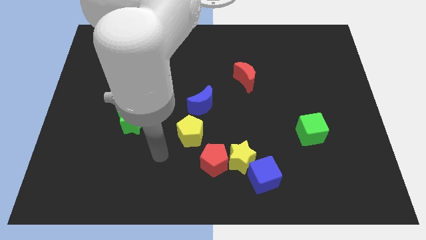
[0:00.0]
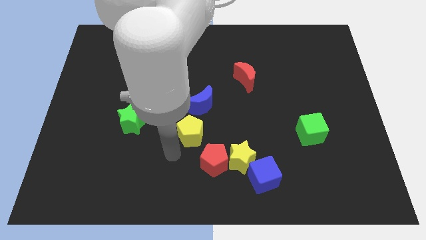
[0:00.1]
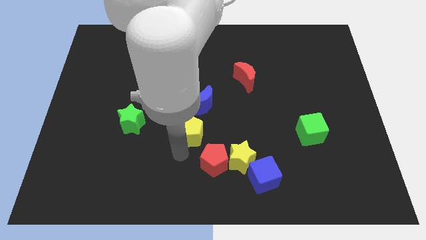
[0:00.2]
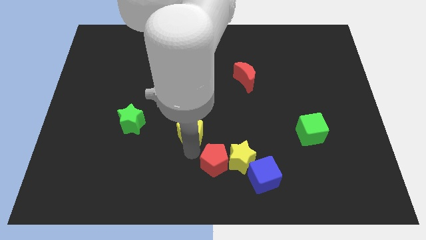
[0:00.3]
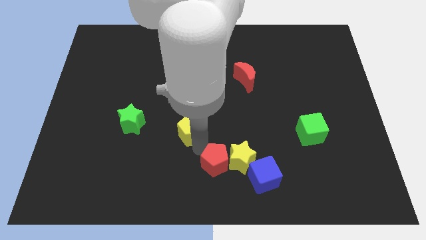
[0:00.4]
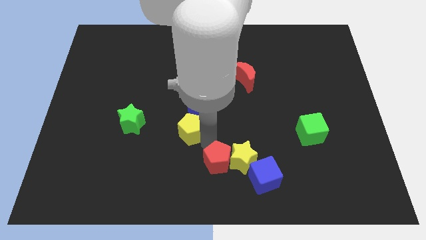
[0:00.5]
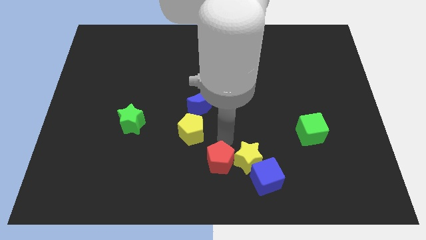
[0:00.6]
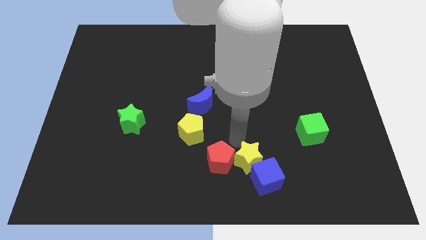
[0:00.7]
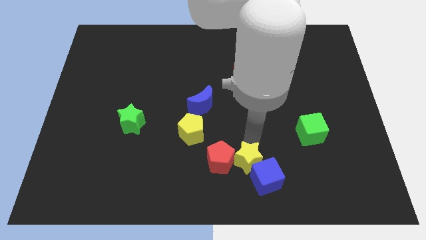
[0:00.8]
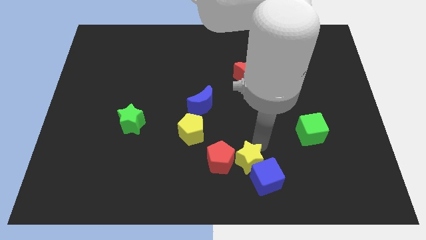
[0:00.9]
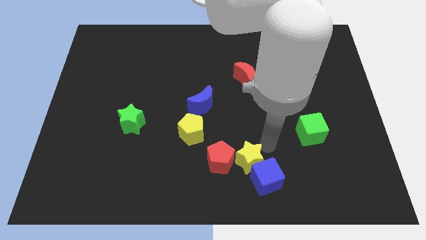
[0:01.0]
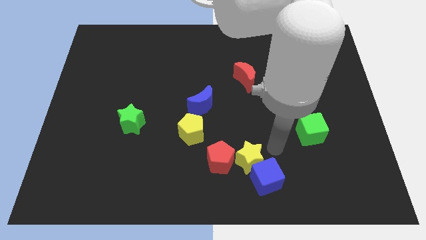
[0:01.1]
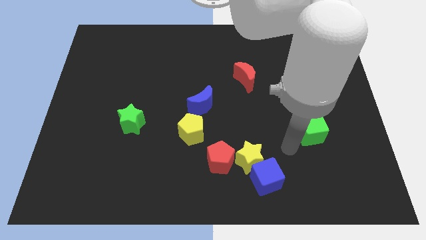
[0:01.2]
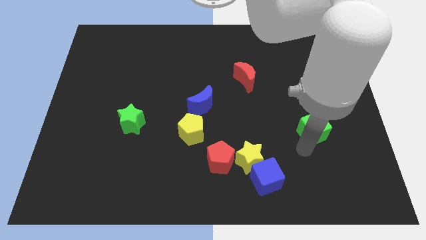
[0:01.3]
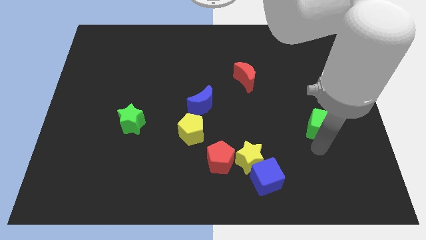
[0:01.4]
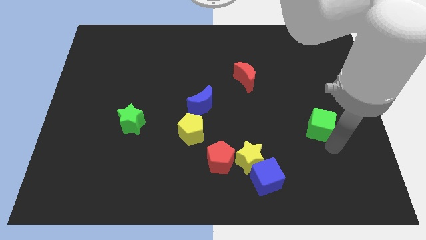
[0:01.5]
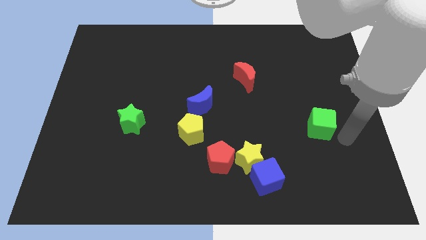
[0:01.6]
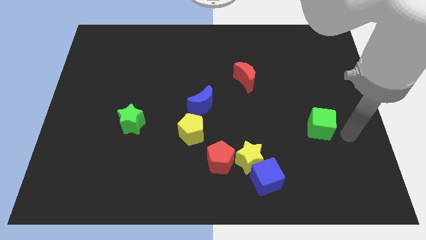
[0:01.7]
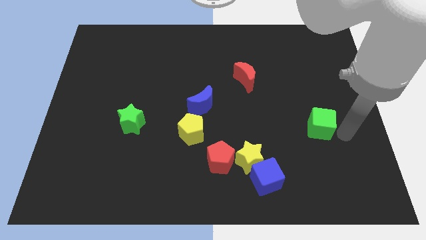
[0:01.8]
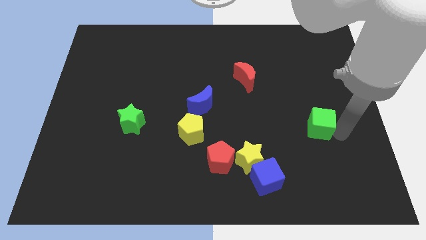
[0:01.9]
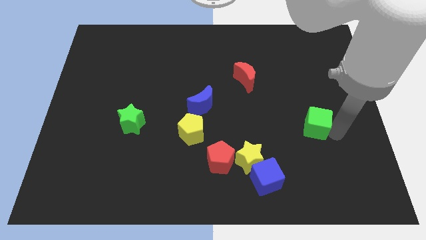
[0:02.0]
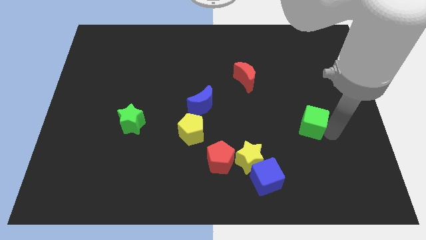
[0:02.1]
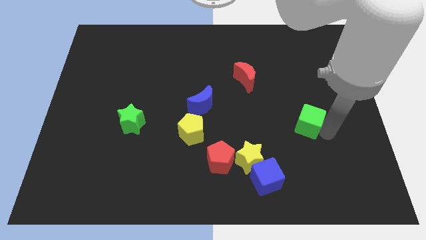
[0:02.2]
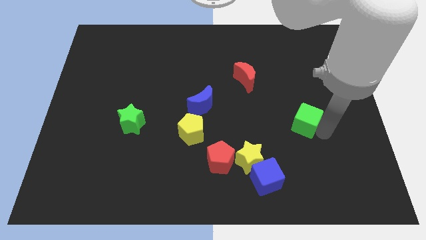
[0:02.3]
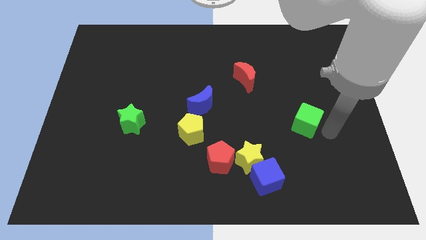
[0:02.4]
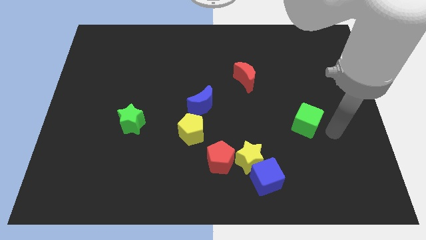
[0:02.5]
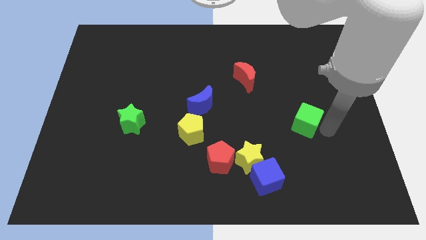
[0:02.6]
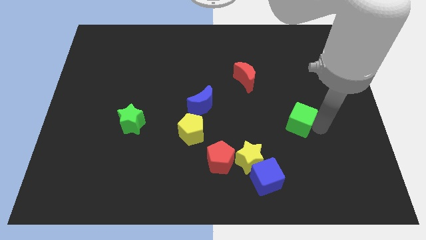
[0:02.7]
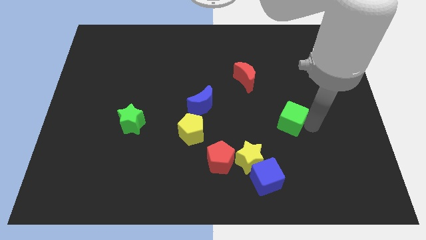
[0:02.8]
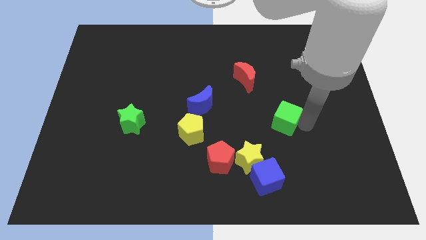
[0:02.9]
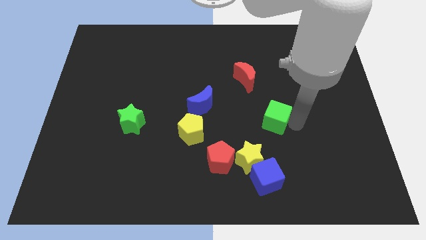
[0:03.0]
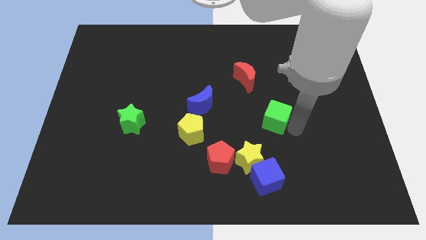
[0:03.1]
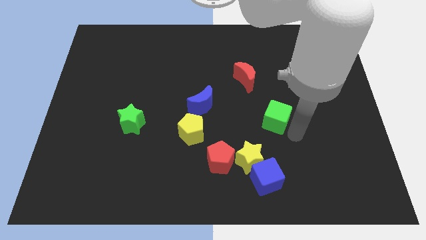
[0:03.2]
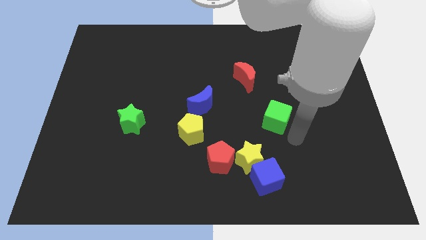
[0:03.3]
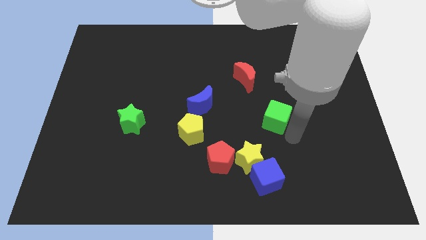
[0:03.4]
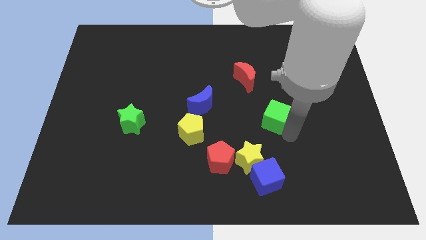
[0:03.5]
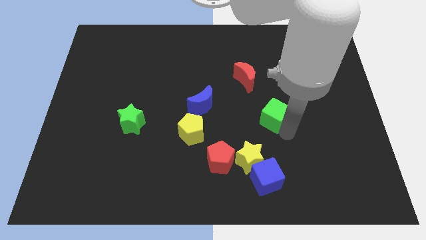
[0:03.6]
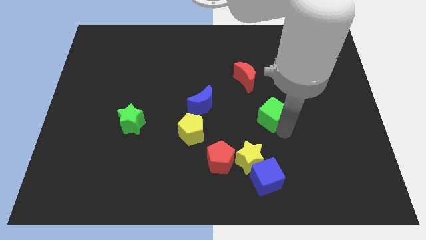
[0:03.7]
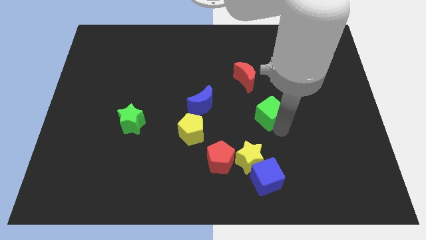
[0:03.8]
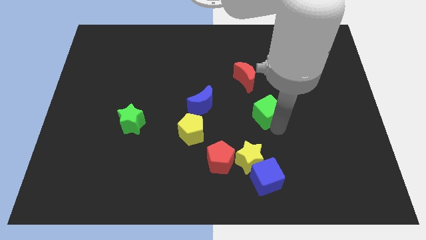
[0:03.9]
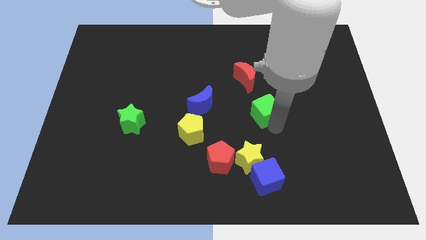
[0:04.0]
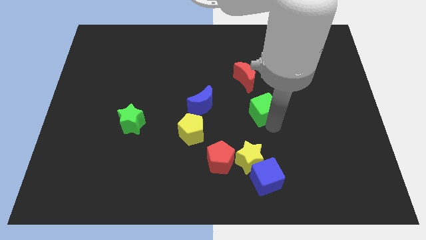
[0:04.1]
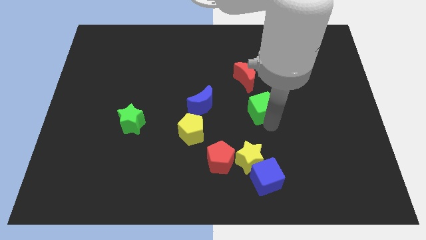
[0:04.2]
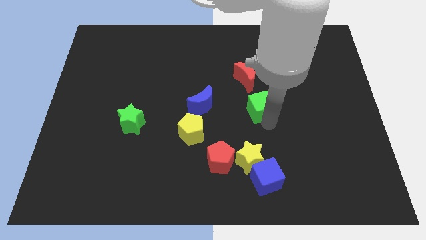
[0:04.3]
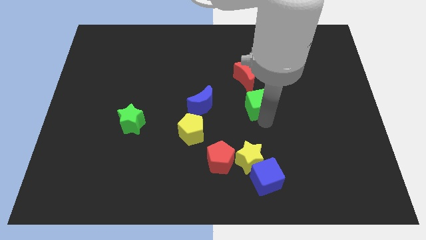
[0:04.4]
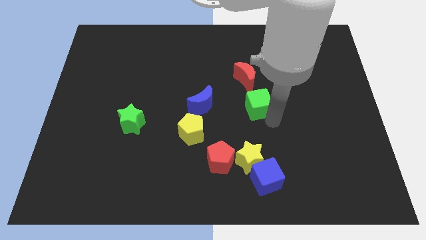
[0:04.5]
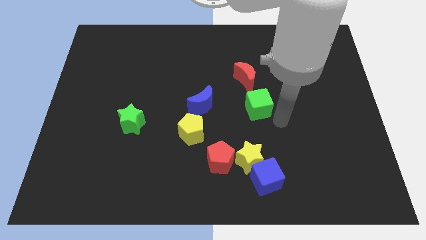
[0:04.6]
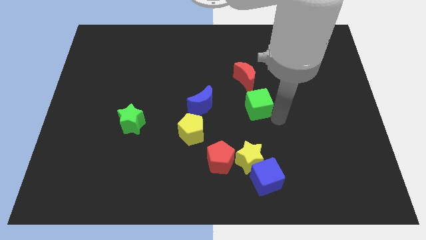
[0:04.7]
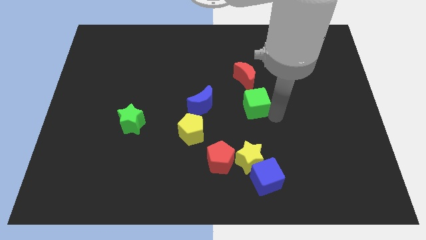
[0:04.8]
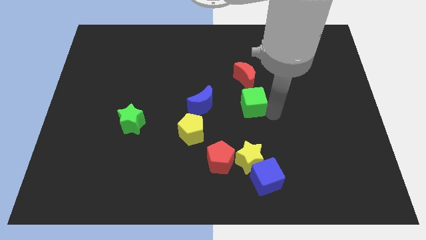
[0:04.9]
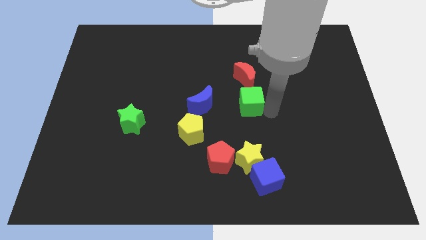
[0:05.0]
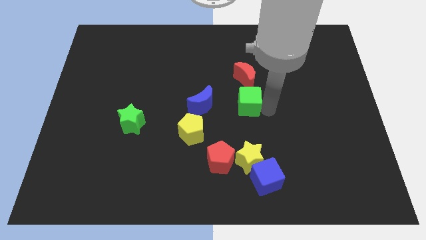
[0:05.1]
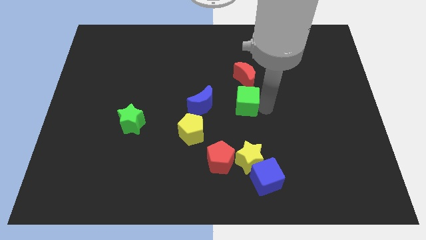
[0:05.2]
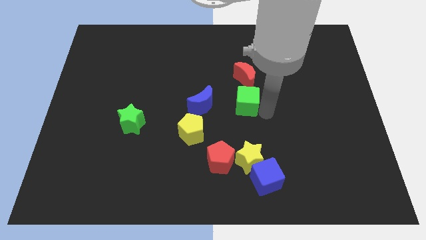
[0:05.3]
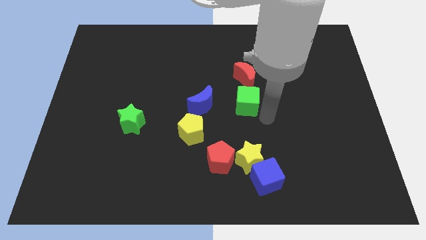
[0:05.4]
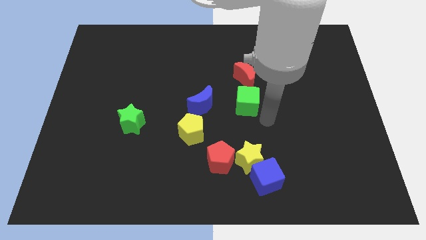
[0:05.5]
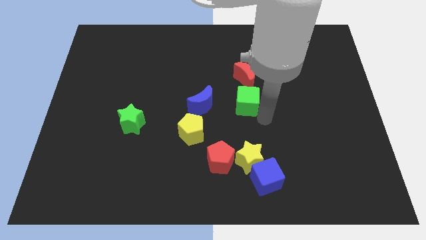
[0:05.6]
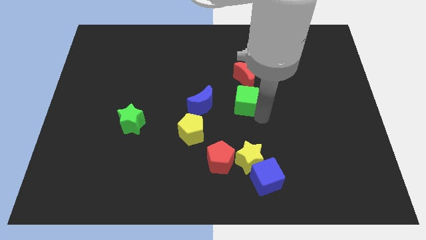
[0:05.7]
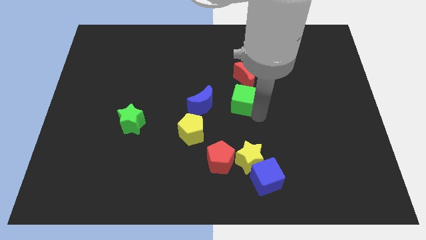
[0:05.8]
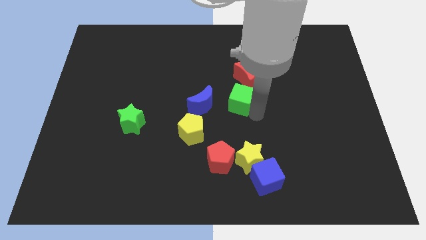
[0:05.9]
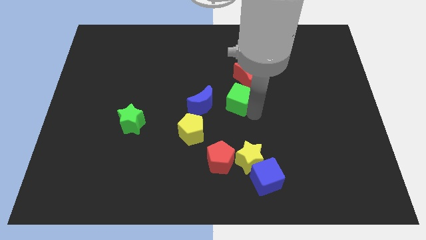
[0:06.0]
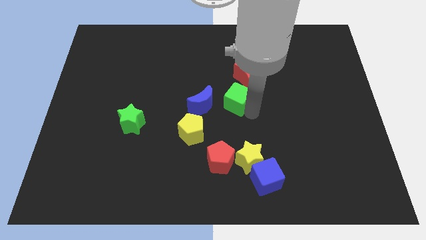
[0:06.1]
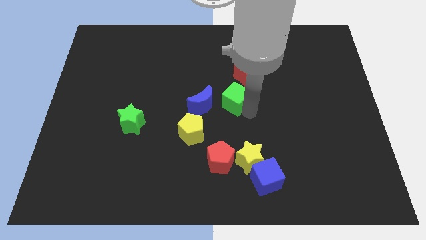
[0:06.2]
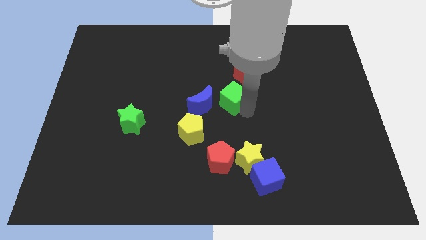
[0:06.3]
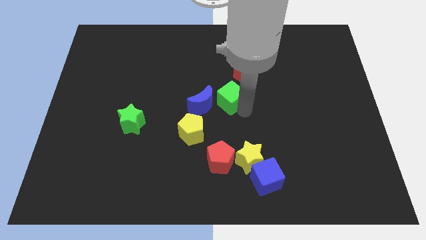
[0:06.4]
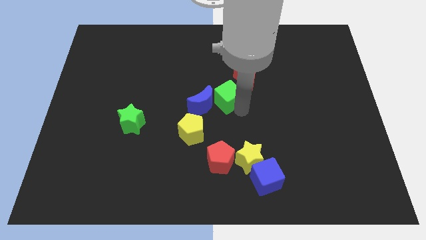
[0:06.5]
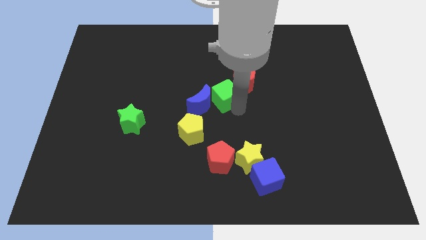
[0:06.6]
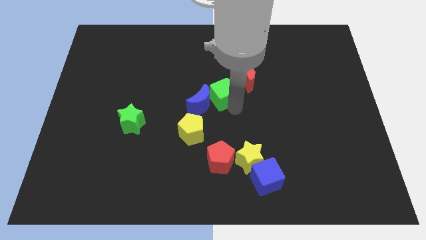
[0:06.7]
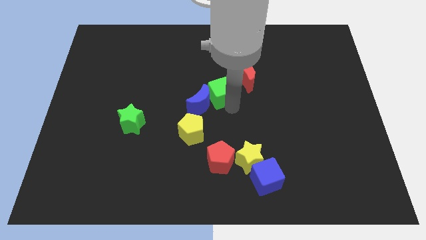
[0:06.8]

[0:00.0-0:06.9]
push the green cube diagonally up and to the left

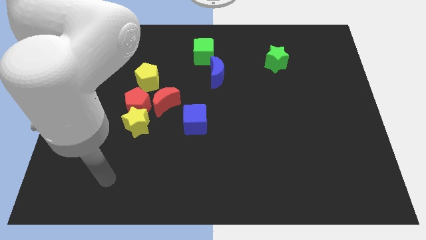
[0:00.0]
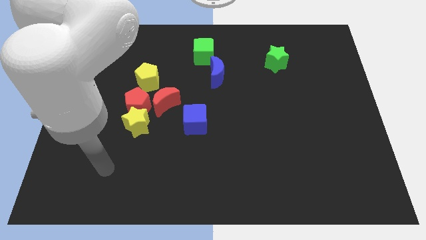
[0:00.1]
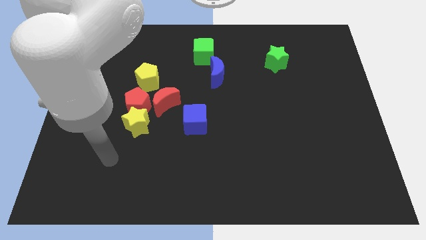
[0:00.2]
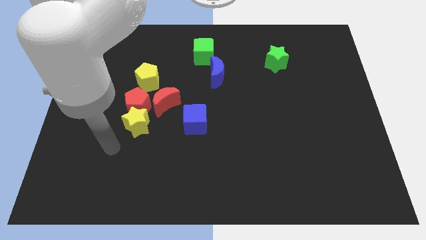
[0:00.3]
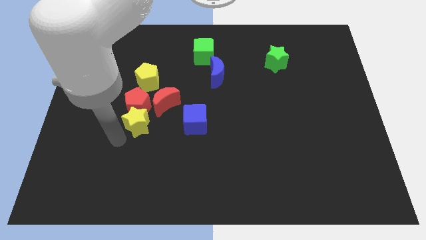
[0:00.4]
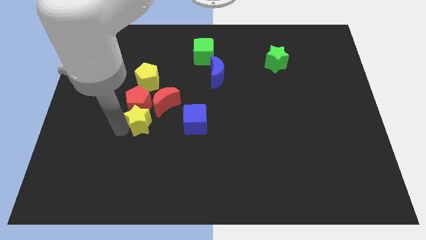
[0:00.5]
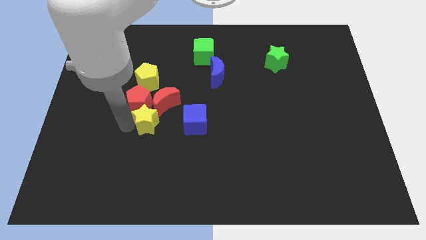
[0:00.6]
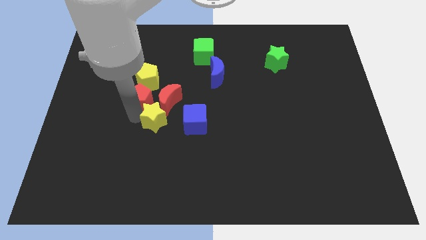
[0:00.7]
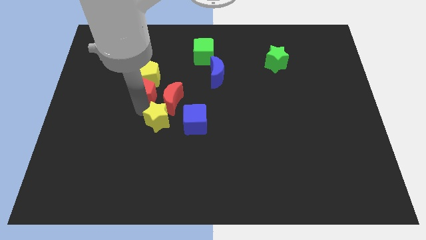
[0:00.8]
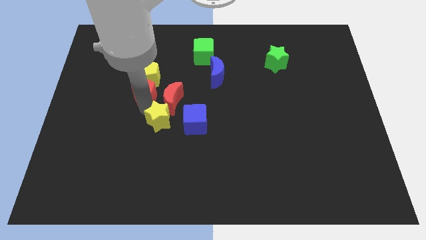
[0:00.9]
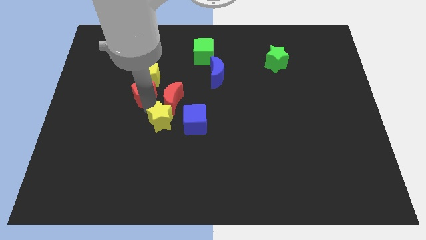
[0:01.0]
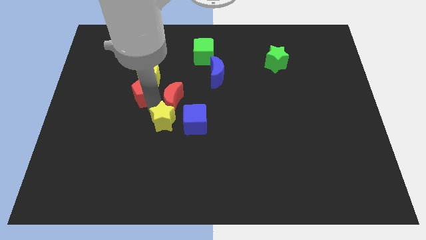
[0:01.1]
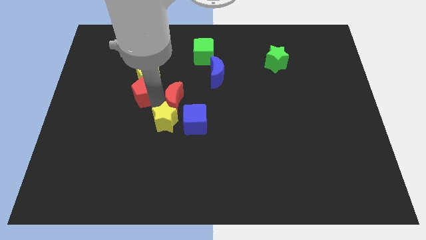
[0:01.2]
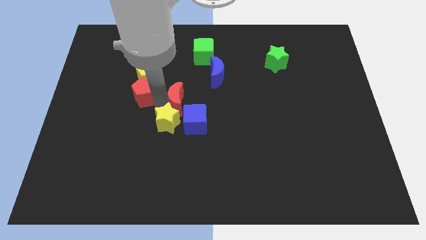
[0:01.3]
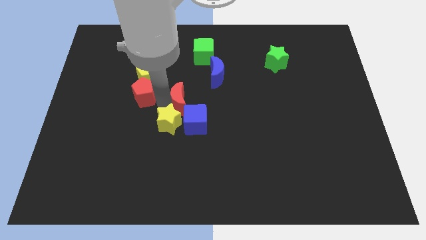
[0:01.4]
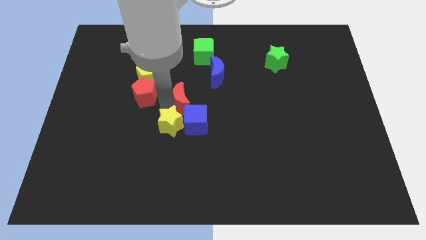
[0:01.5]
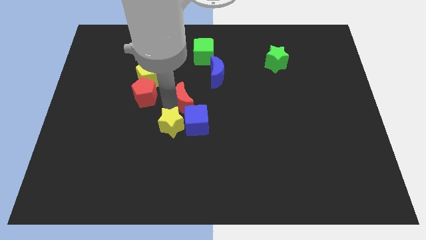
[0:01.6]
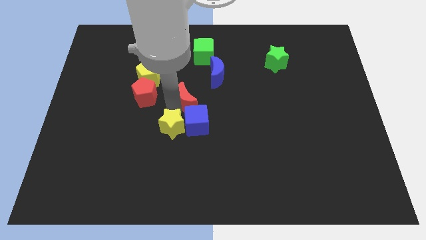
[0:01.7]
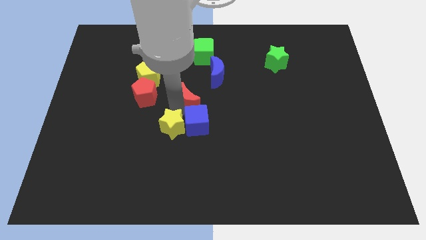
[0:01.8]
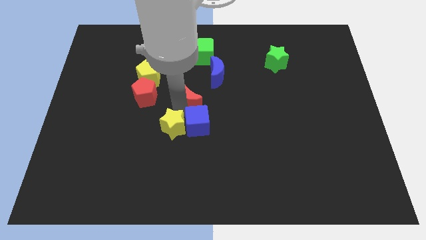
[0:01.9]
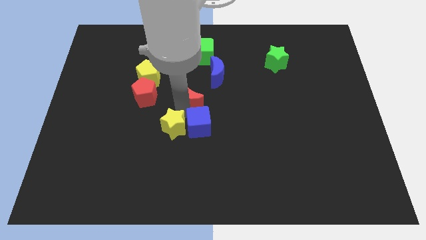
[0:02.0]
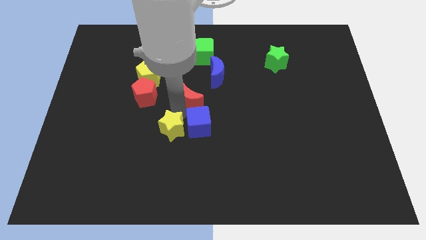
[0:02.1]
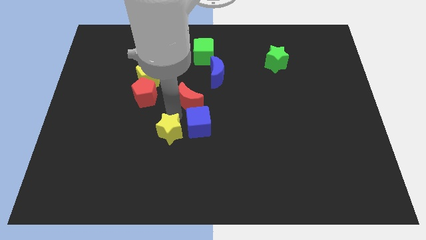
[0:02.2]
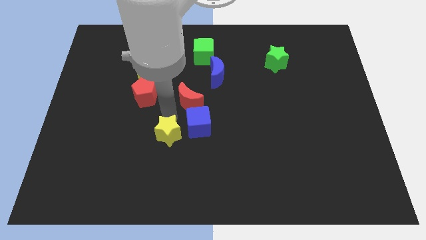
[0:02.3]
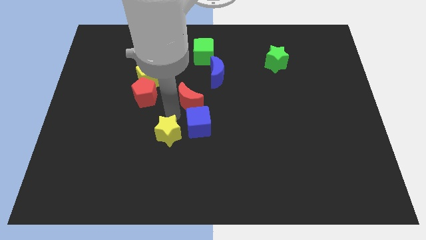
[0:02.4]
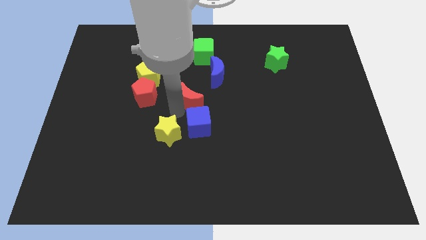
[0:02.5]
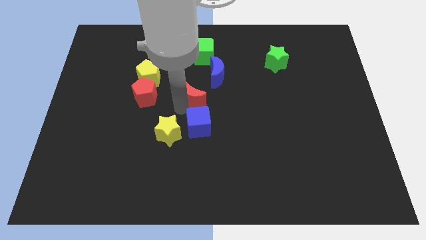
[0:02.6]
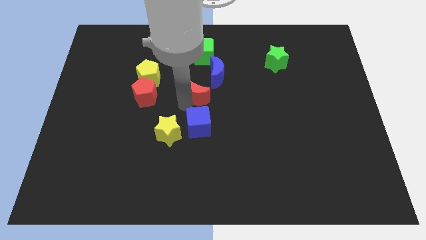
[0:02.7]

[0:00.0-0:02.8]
move the red moon right slightly
